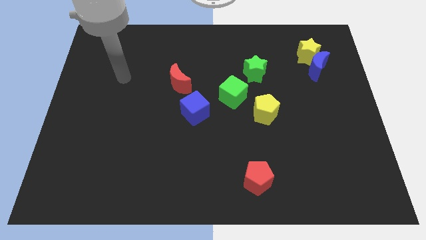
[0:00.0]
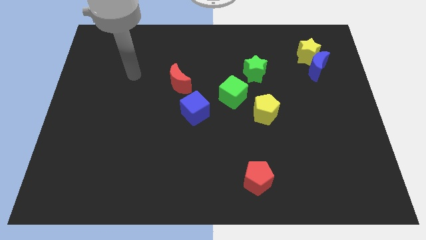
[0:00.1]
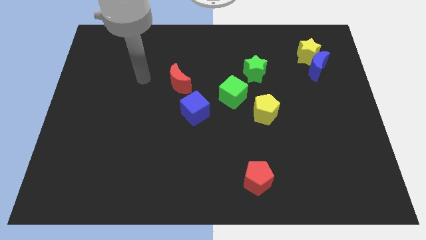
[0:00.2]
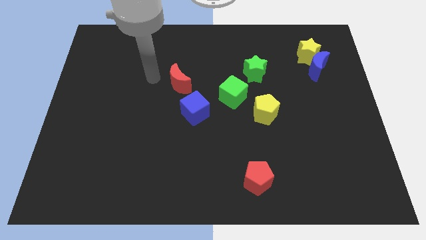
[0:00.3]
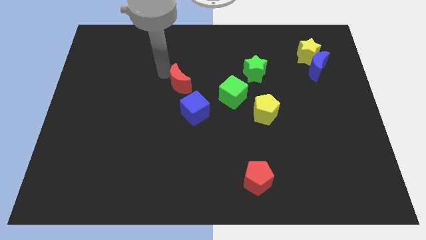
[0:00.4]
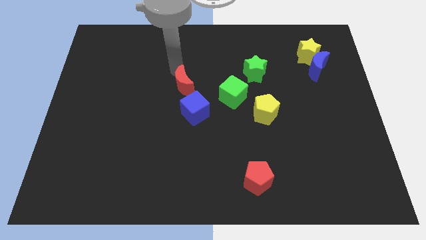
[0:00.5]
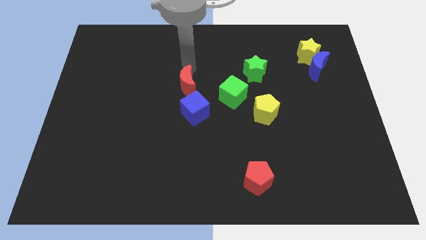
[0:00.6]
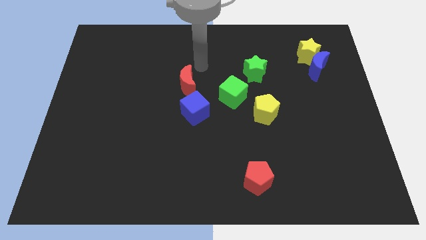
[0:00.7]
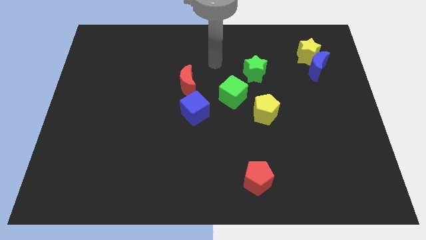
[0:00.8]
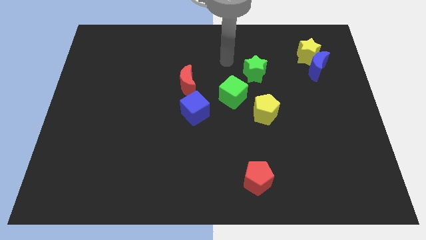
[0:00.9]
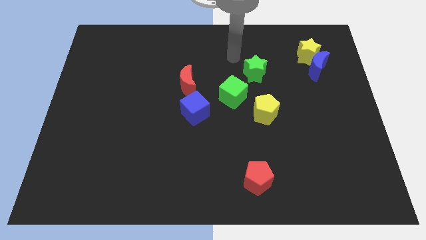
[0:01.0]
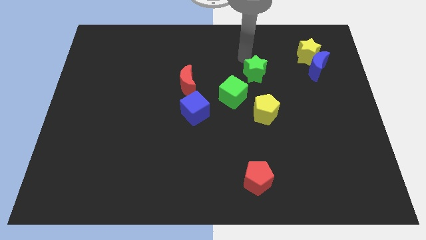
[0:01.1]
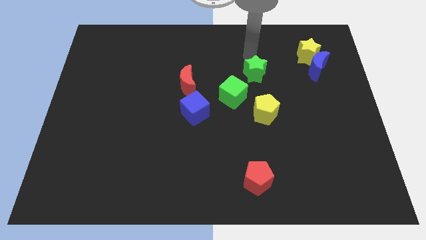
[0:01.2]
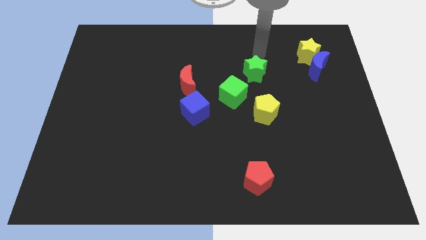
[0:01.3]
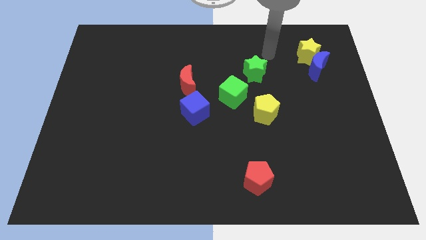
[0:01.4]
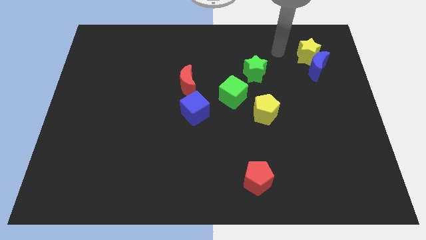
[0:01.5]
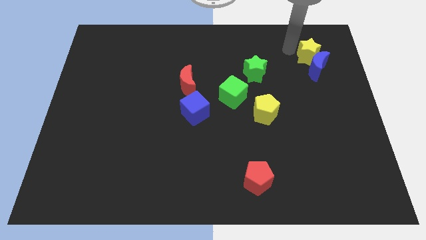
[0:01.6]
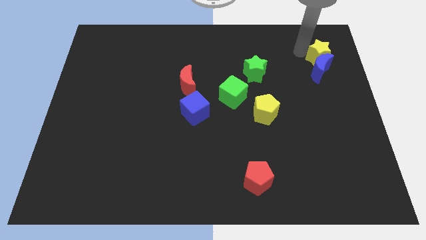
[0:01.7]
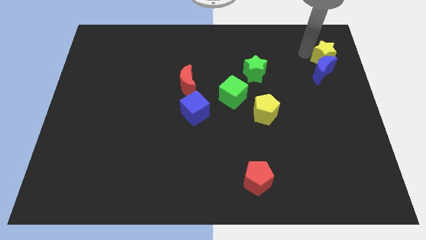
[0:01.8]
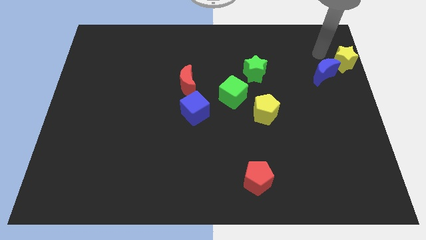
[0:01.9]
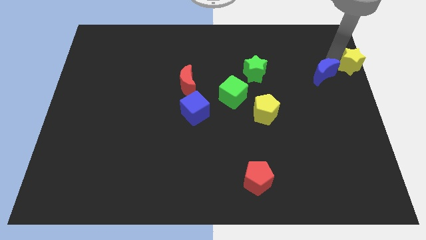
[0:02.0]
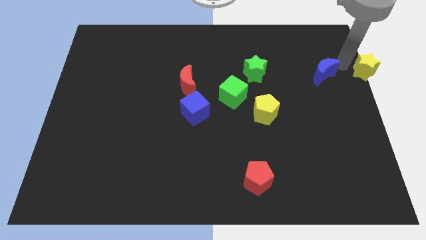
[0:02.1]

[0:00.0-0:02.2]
move the blue moon away from the yellow star

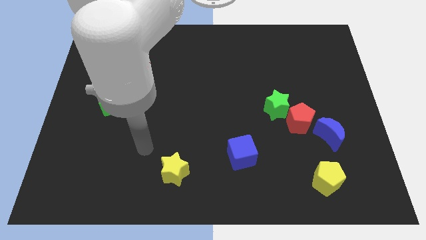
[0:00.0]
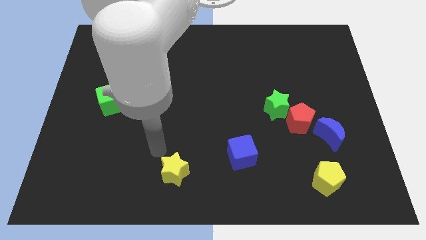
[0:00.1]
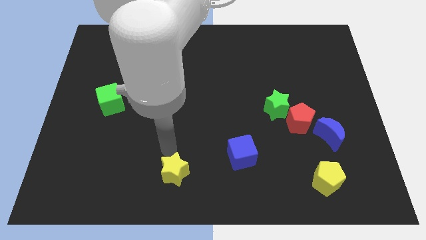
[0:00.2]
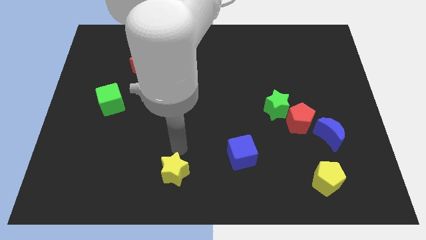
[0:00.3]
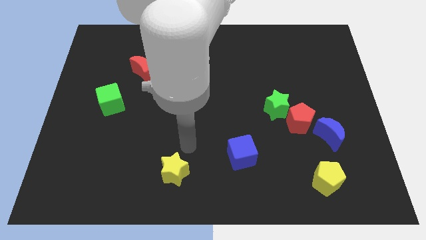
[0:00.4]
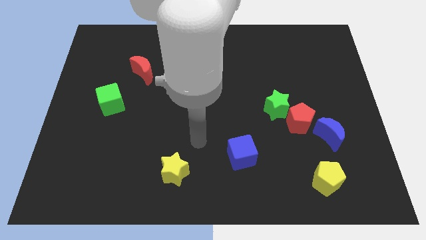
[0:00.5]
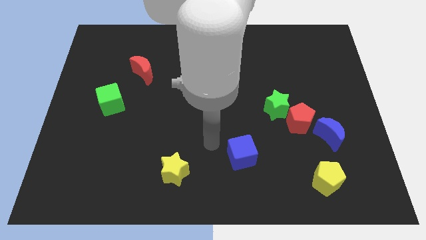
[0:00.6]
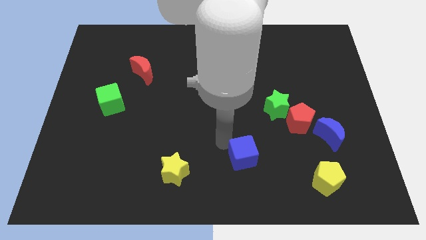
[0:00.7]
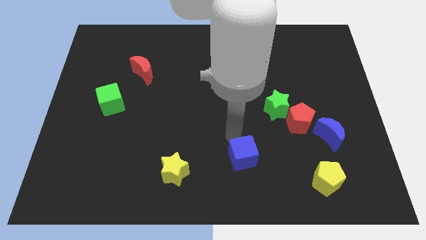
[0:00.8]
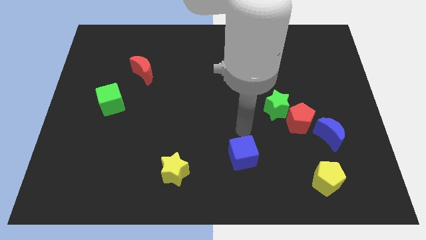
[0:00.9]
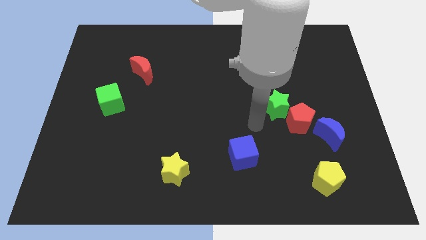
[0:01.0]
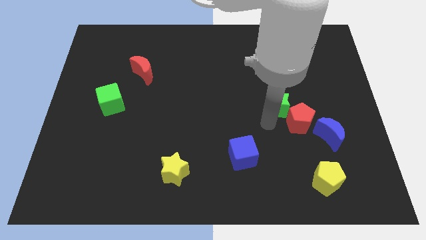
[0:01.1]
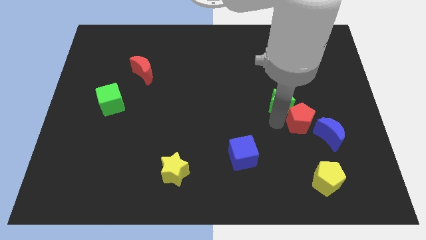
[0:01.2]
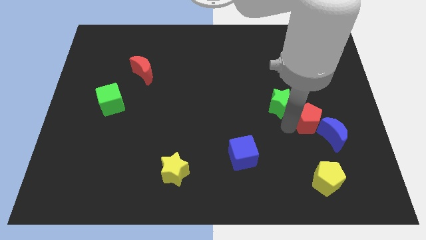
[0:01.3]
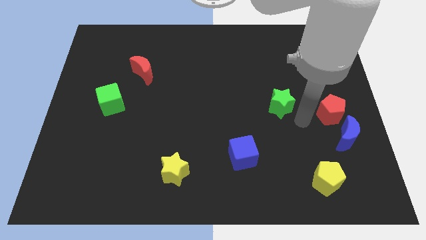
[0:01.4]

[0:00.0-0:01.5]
pull the green star apart from the red pentagon

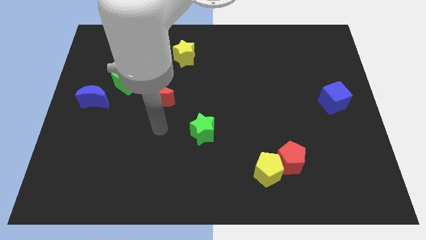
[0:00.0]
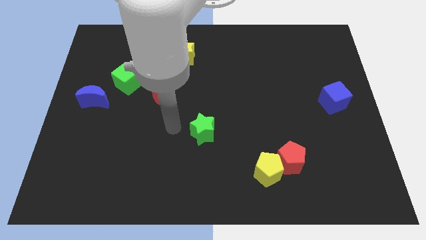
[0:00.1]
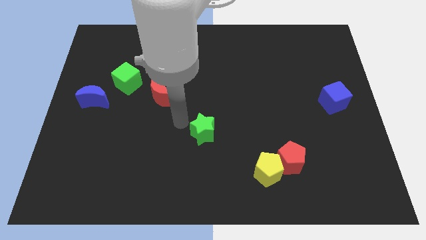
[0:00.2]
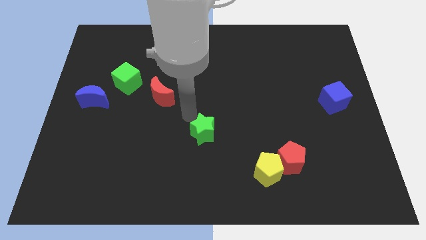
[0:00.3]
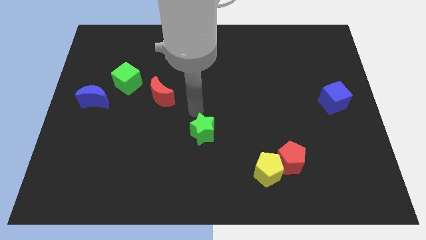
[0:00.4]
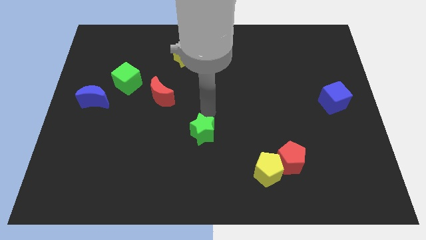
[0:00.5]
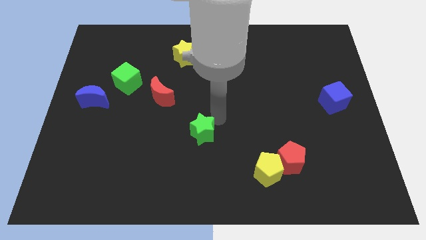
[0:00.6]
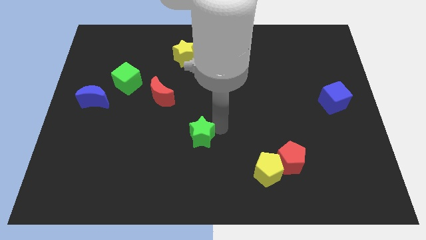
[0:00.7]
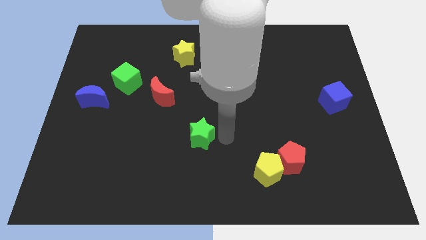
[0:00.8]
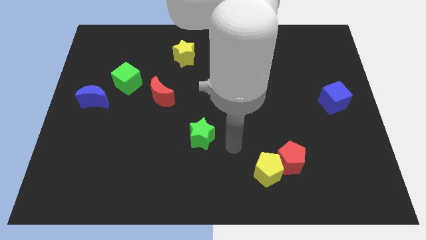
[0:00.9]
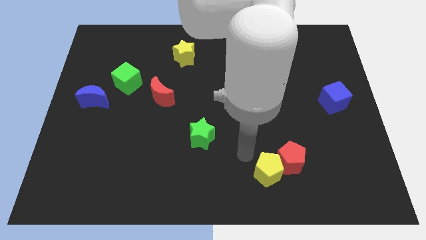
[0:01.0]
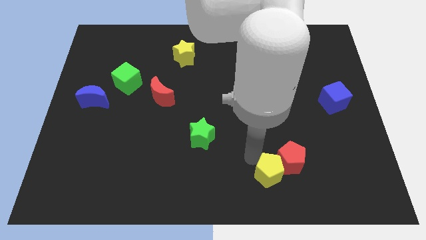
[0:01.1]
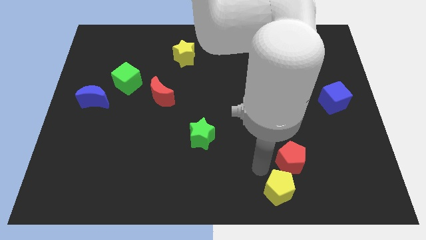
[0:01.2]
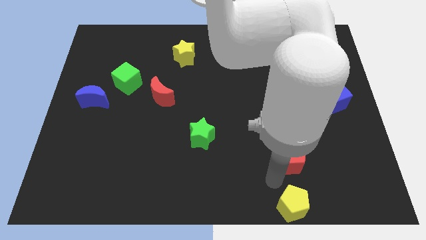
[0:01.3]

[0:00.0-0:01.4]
move the red pentagon away from the yellow pentagon

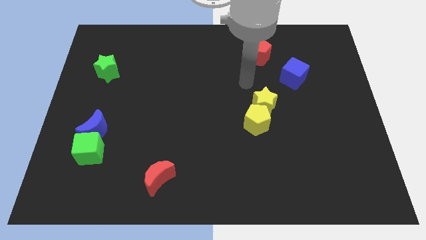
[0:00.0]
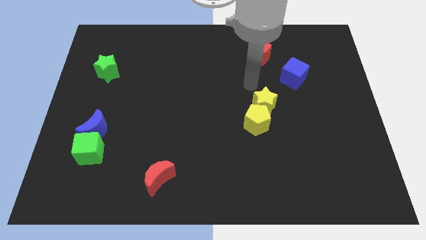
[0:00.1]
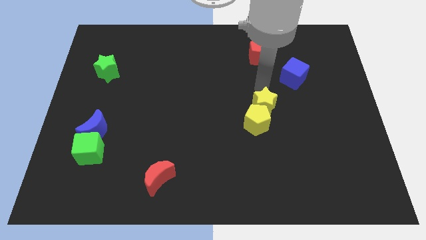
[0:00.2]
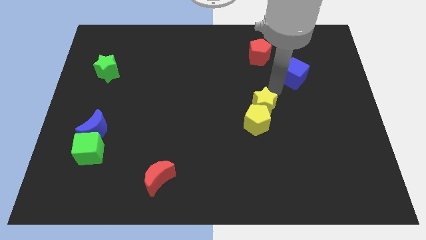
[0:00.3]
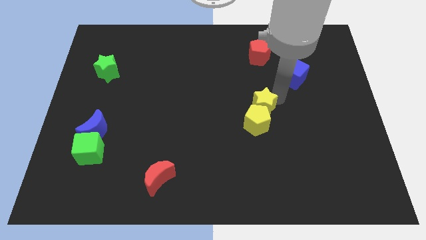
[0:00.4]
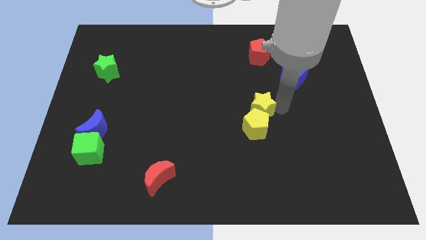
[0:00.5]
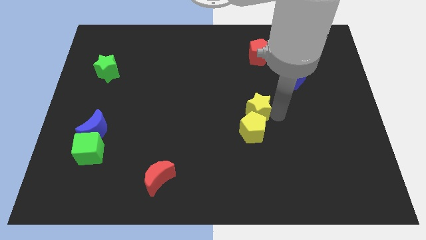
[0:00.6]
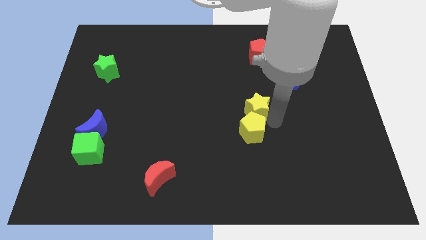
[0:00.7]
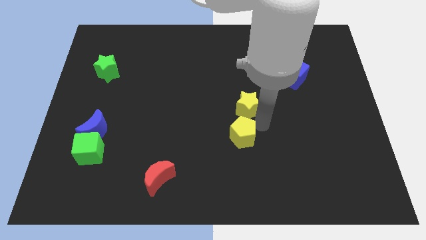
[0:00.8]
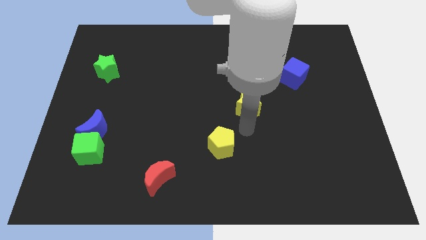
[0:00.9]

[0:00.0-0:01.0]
separate the yellow star from the yellow pentagon

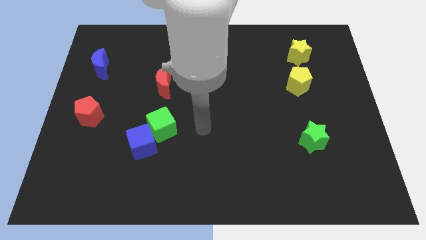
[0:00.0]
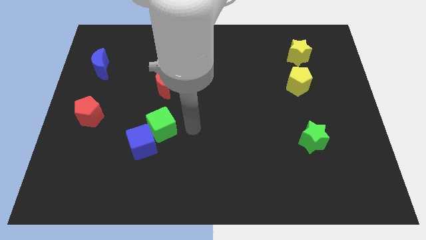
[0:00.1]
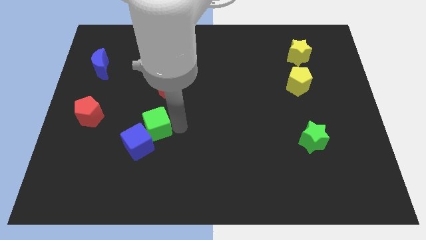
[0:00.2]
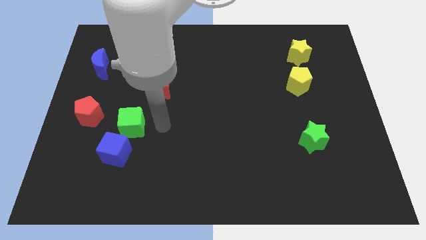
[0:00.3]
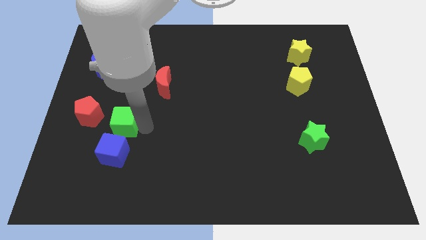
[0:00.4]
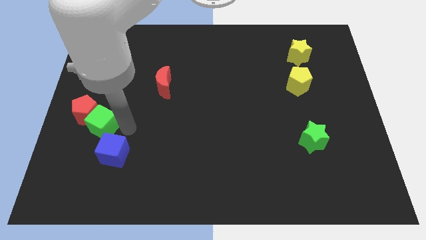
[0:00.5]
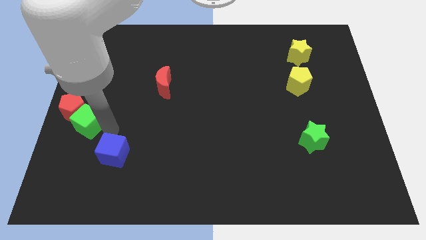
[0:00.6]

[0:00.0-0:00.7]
move the blue cube away from the green cube

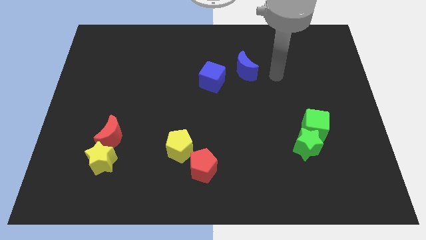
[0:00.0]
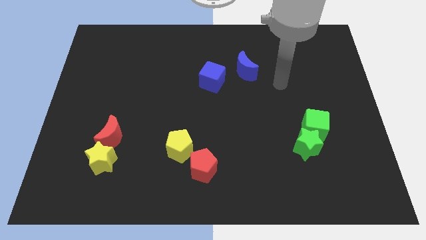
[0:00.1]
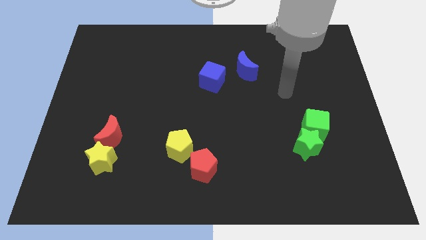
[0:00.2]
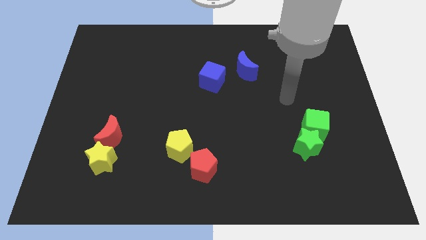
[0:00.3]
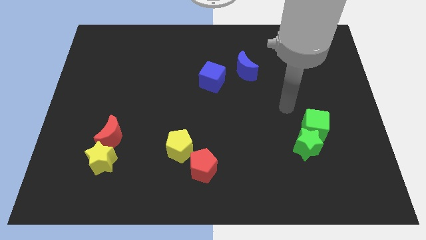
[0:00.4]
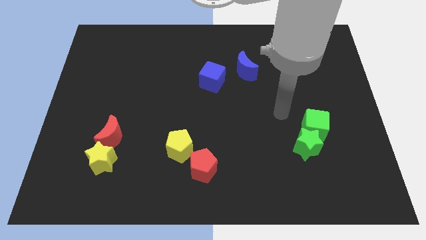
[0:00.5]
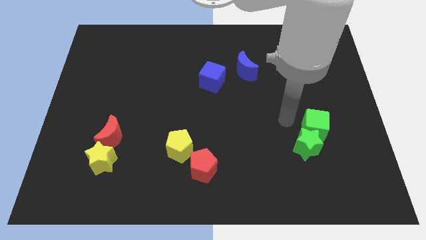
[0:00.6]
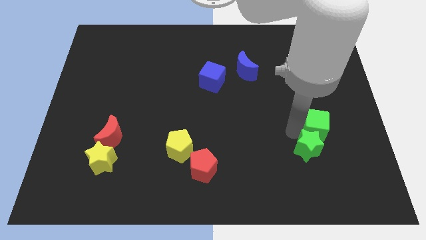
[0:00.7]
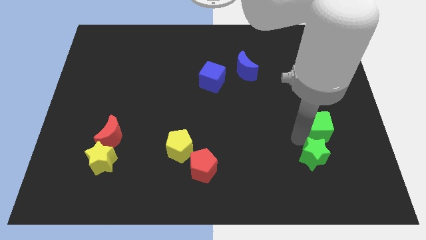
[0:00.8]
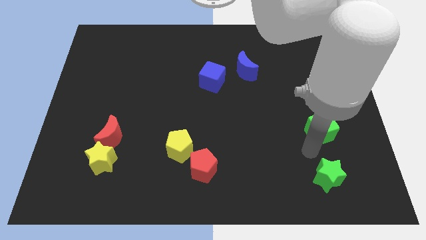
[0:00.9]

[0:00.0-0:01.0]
pull the green cube apart from the green star

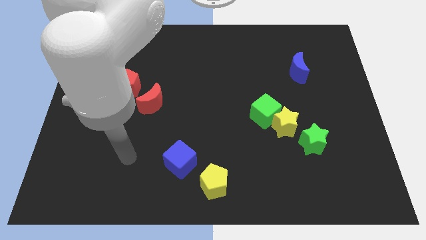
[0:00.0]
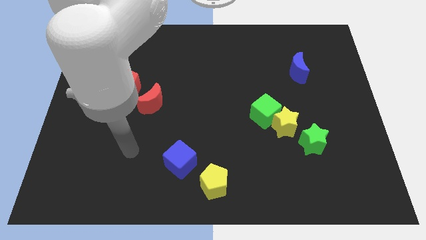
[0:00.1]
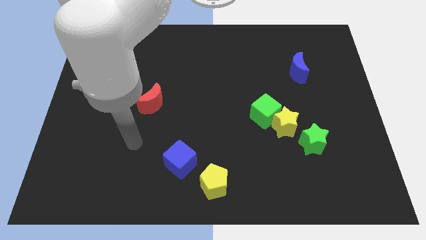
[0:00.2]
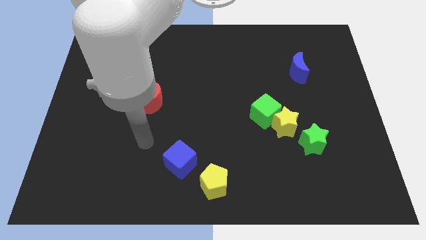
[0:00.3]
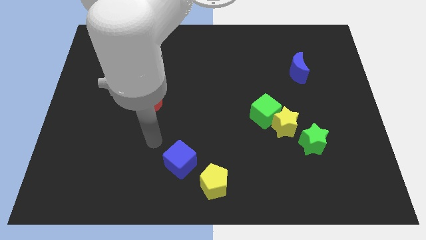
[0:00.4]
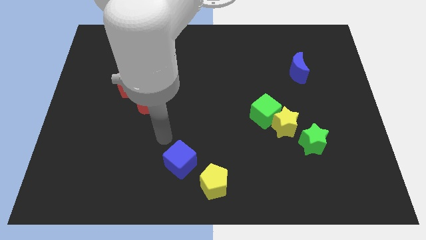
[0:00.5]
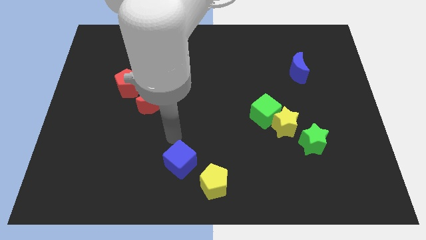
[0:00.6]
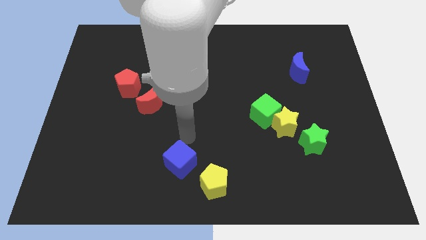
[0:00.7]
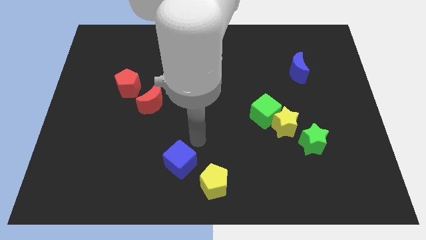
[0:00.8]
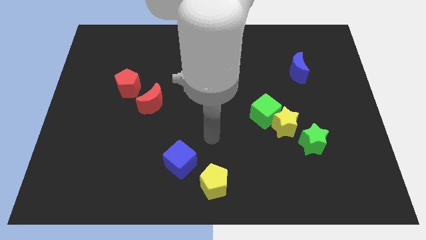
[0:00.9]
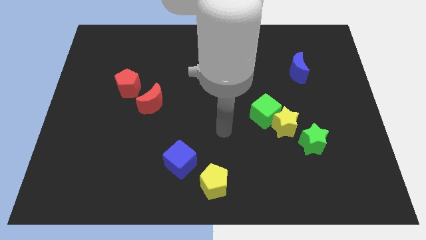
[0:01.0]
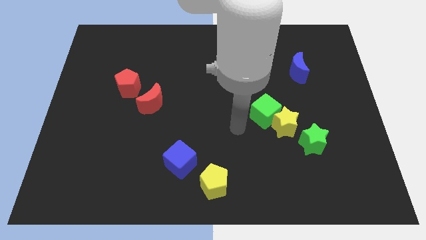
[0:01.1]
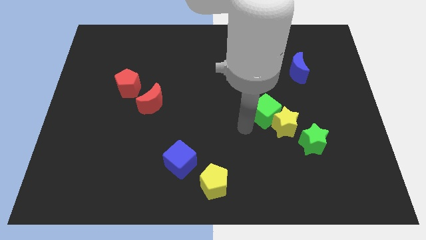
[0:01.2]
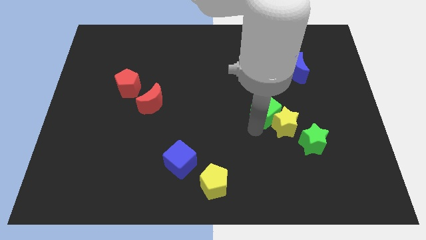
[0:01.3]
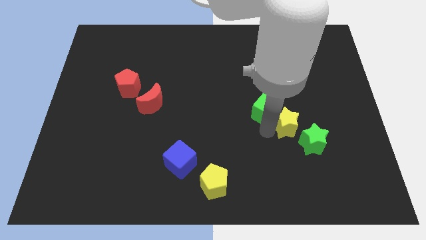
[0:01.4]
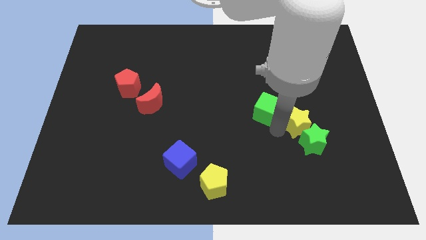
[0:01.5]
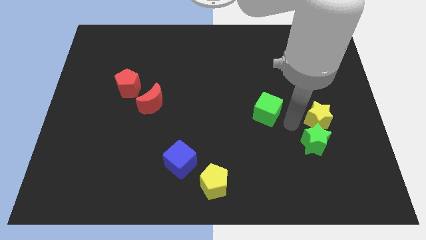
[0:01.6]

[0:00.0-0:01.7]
separate the green cube from the yellow star
